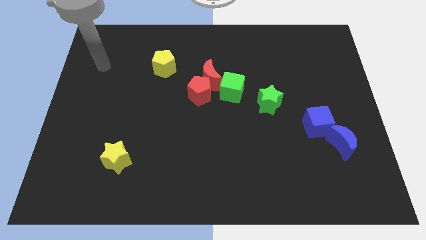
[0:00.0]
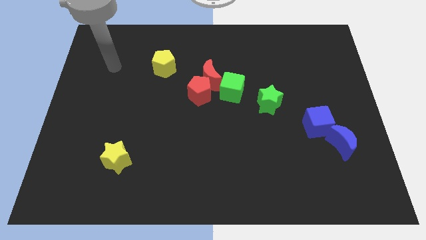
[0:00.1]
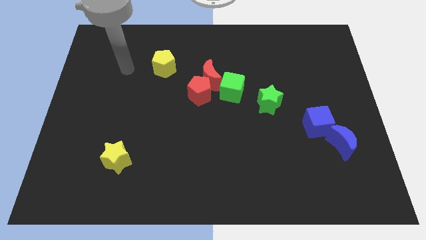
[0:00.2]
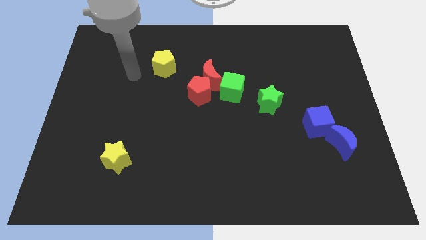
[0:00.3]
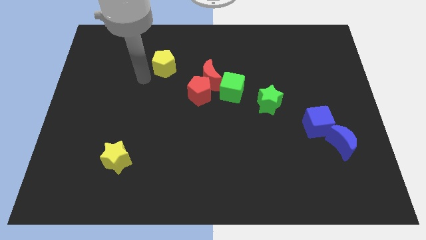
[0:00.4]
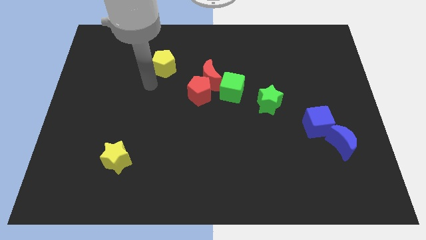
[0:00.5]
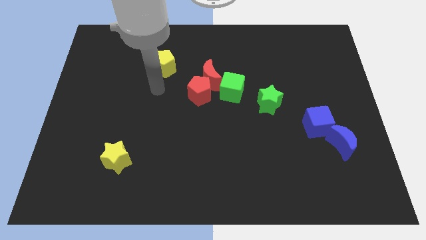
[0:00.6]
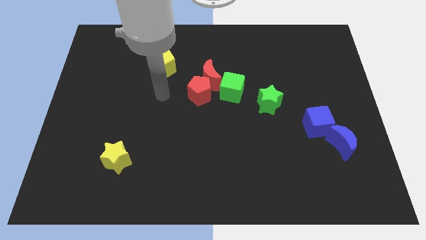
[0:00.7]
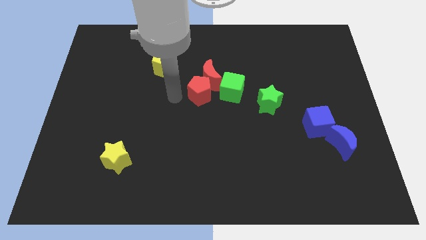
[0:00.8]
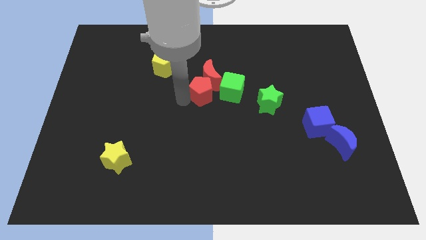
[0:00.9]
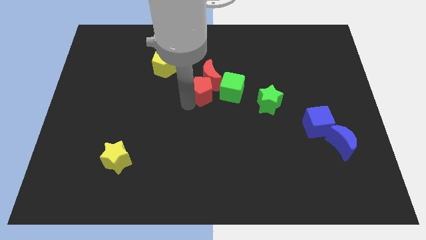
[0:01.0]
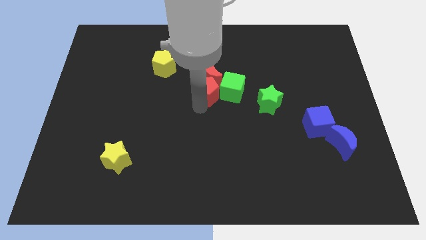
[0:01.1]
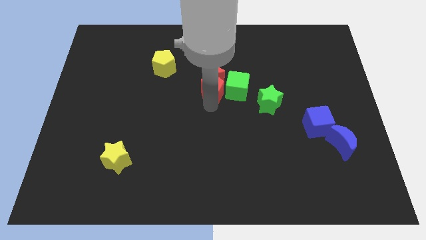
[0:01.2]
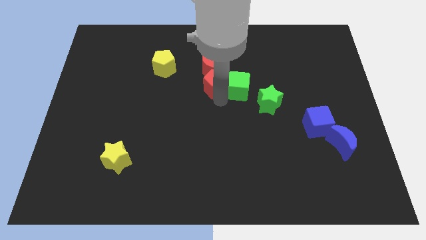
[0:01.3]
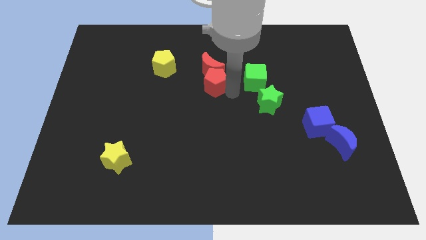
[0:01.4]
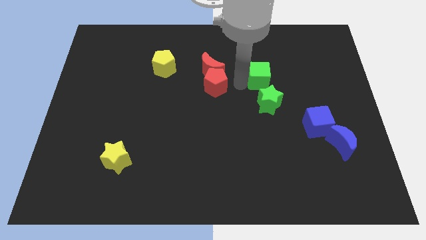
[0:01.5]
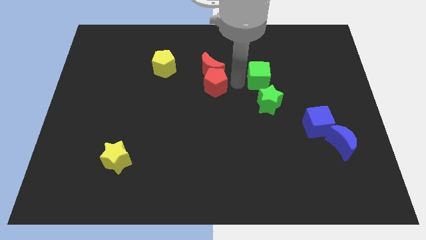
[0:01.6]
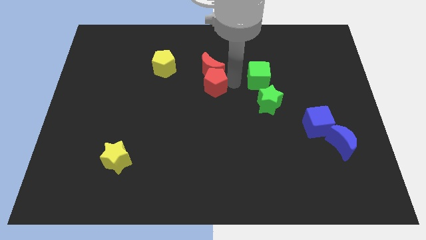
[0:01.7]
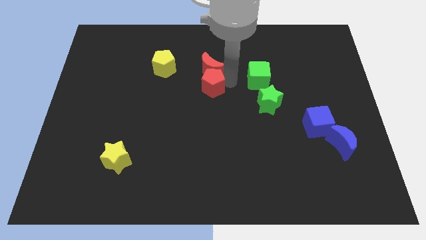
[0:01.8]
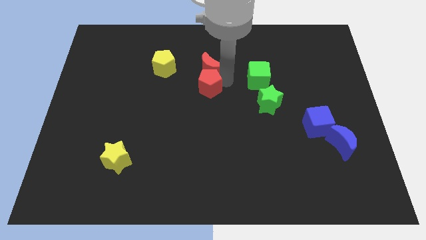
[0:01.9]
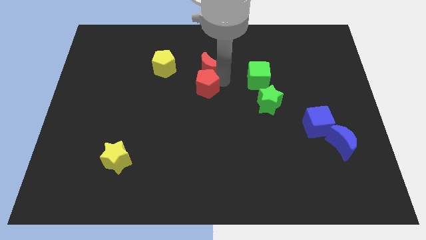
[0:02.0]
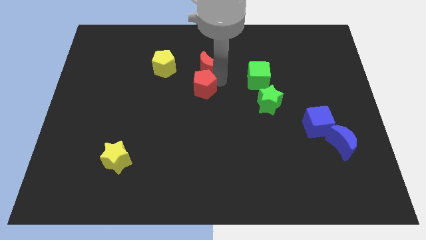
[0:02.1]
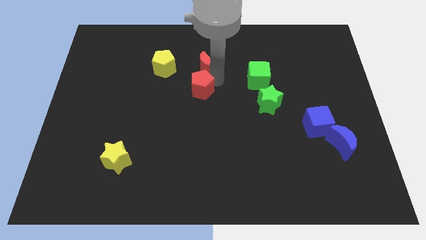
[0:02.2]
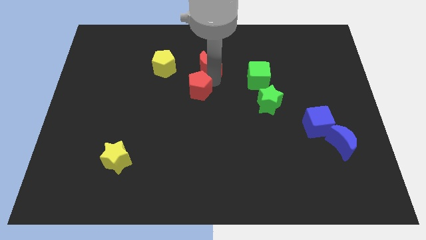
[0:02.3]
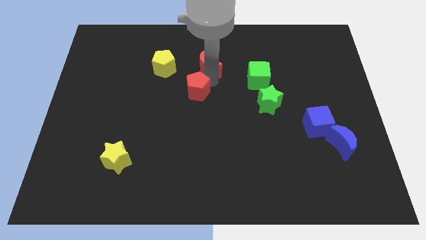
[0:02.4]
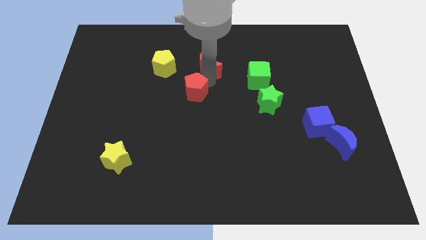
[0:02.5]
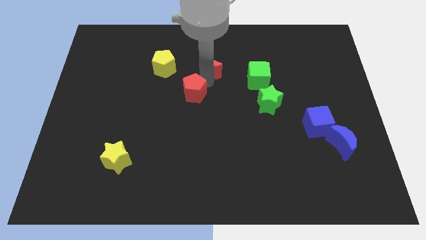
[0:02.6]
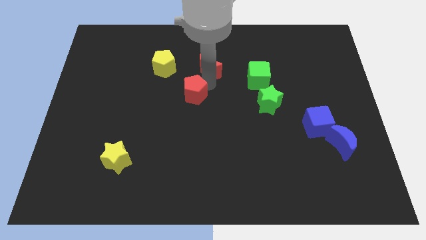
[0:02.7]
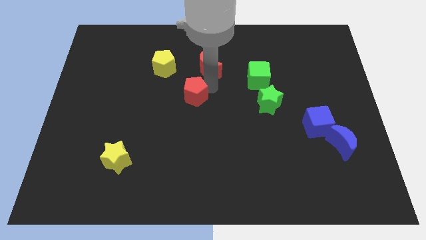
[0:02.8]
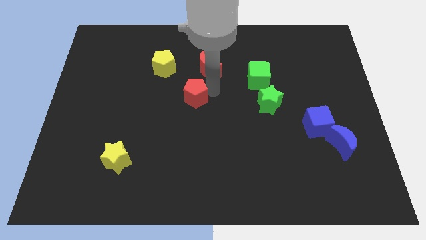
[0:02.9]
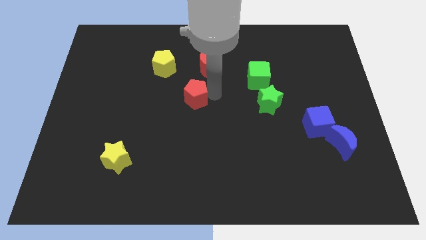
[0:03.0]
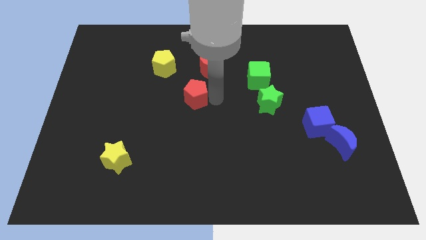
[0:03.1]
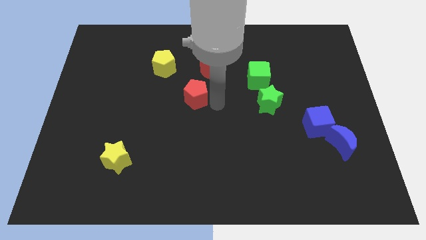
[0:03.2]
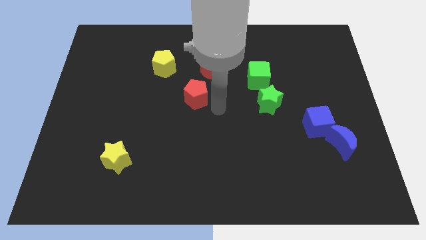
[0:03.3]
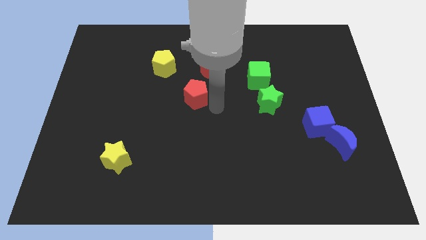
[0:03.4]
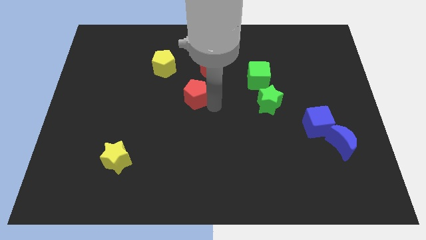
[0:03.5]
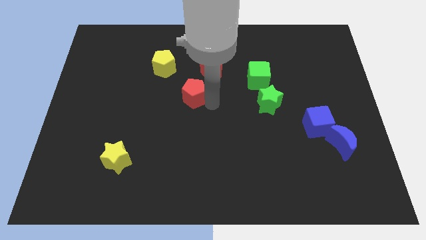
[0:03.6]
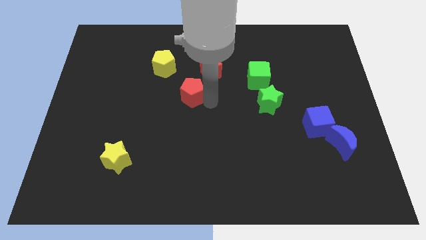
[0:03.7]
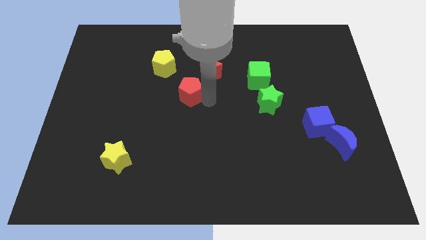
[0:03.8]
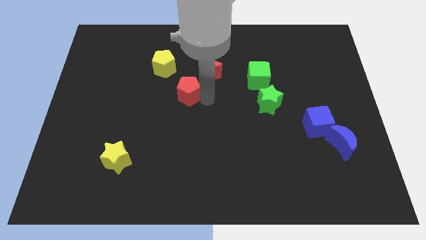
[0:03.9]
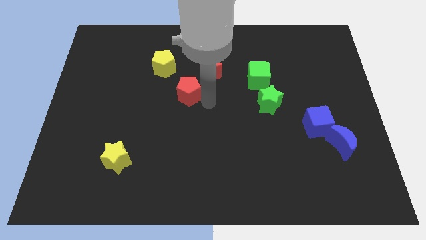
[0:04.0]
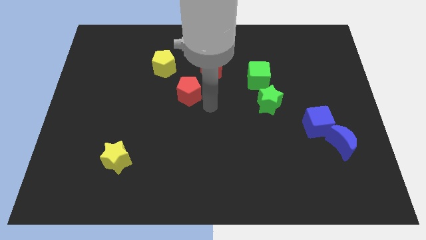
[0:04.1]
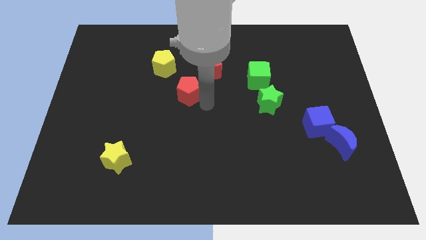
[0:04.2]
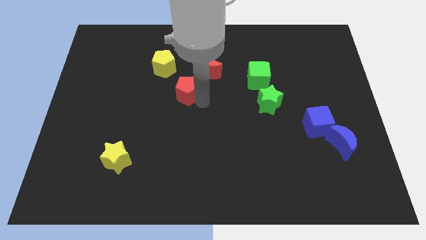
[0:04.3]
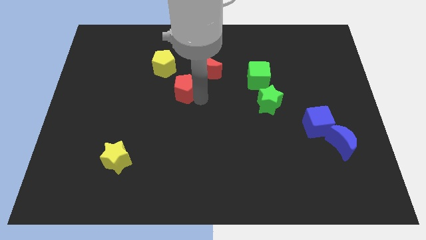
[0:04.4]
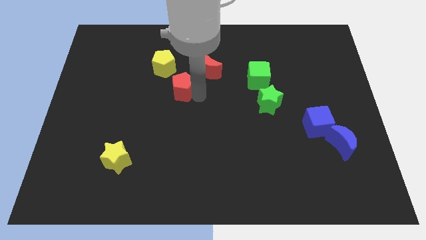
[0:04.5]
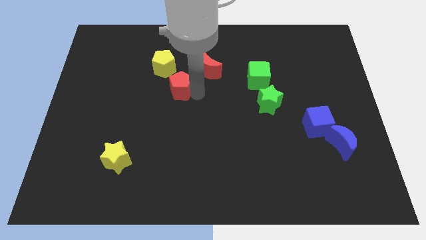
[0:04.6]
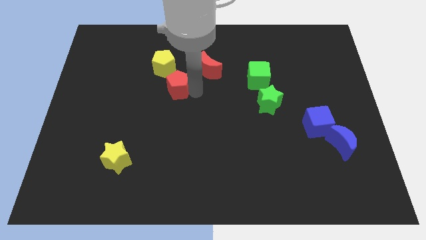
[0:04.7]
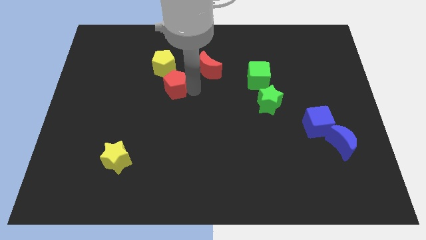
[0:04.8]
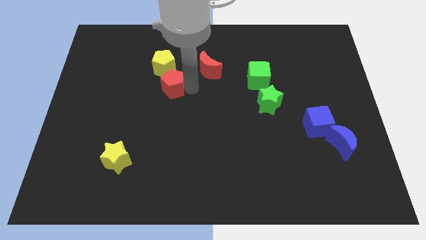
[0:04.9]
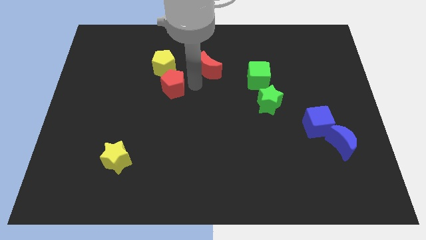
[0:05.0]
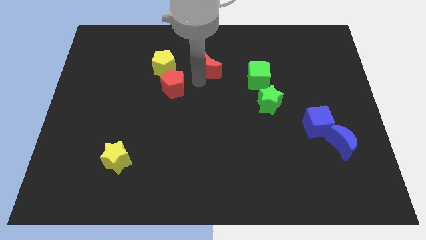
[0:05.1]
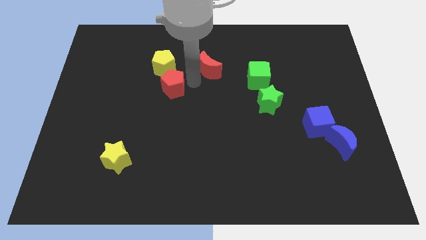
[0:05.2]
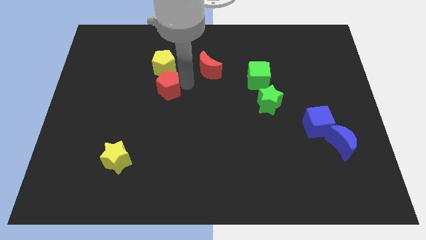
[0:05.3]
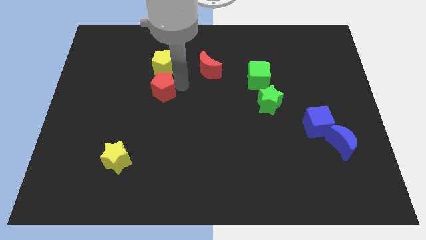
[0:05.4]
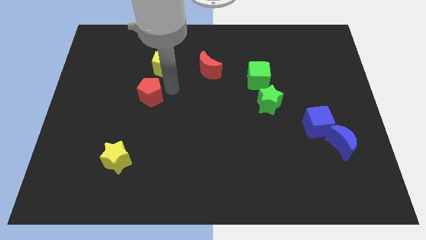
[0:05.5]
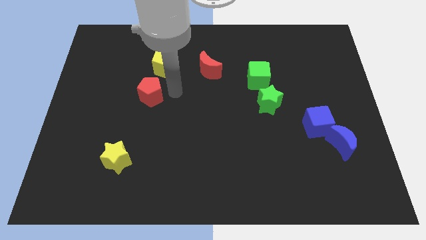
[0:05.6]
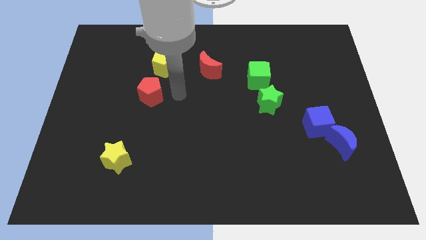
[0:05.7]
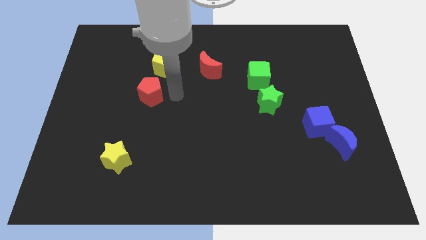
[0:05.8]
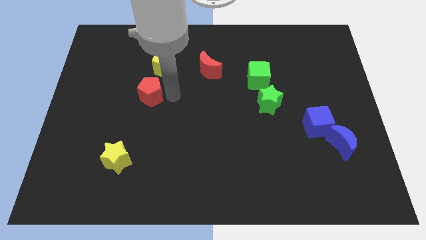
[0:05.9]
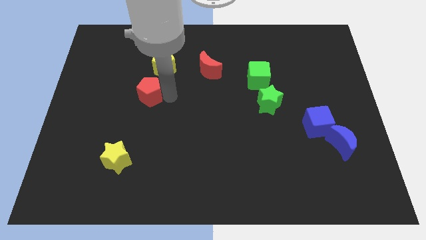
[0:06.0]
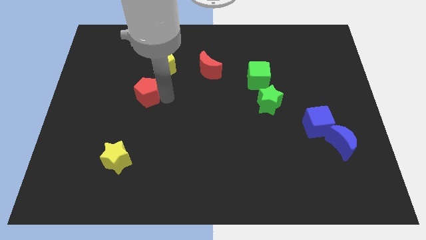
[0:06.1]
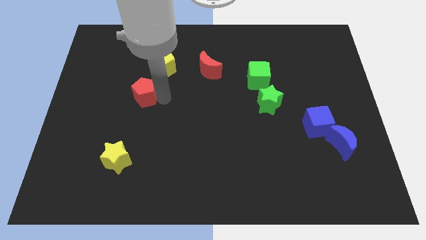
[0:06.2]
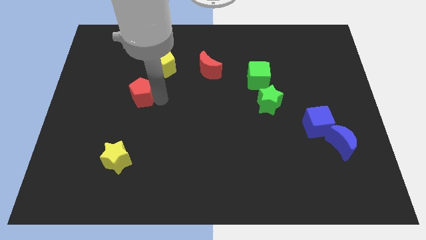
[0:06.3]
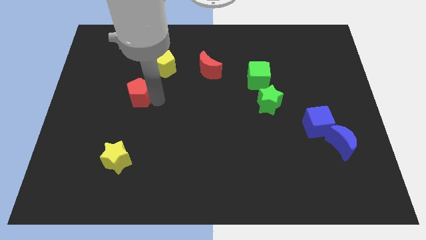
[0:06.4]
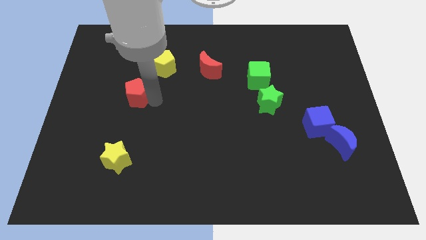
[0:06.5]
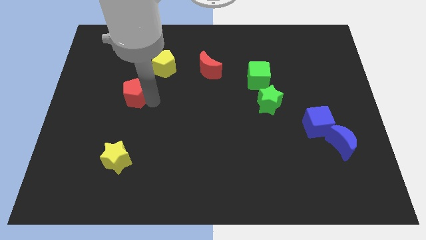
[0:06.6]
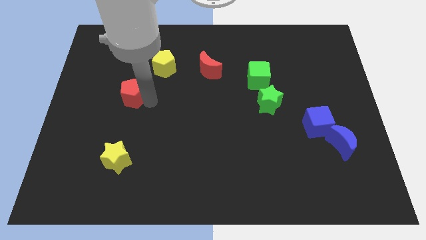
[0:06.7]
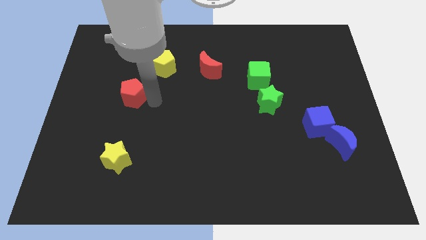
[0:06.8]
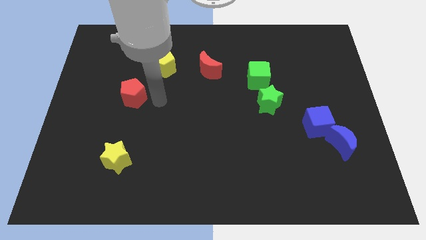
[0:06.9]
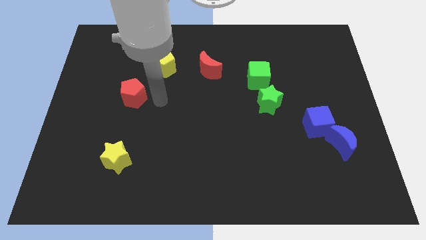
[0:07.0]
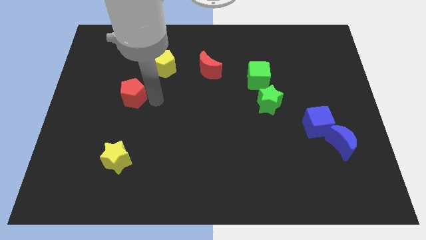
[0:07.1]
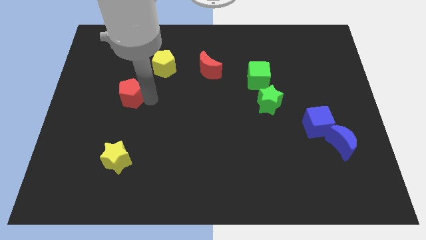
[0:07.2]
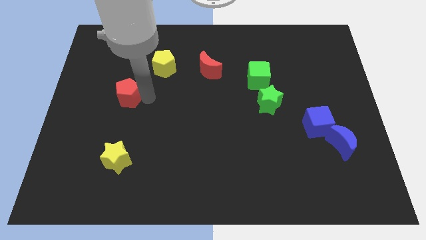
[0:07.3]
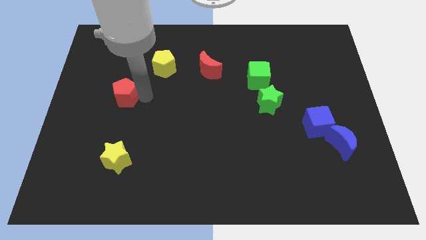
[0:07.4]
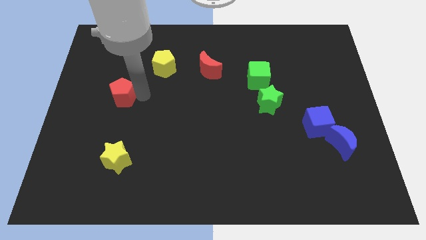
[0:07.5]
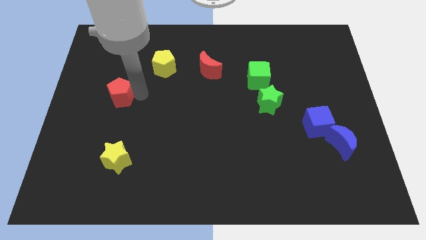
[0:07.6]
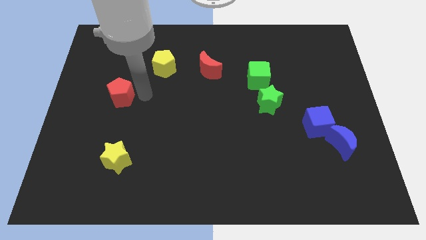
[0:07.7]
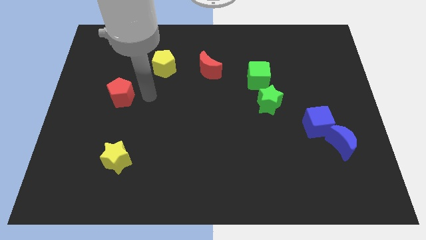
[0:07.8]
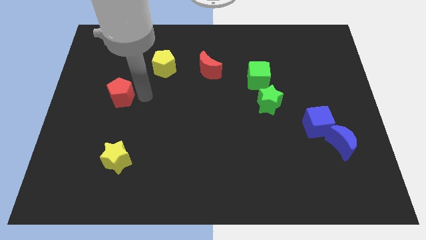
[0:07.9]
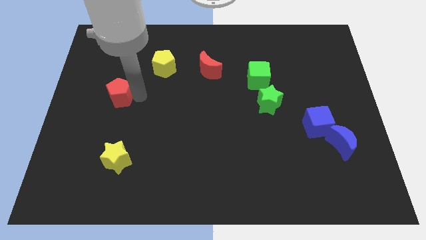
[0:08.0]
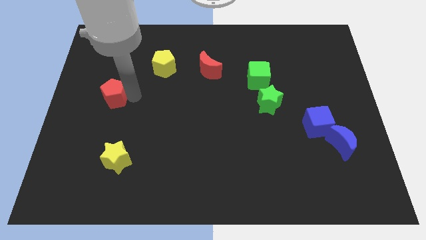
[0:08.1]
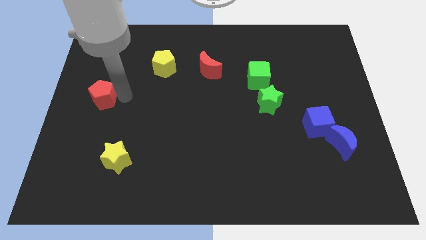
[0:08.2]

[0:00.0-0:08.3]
push the red pentagon to the left side of the board
